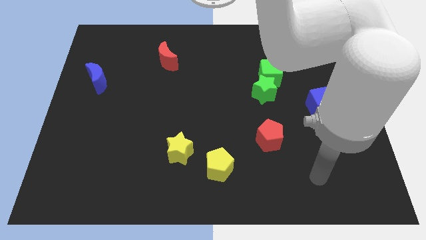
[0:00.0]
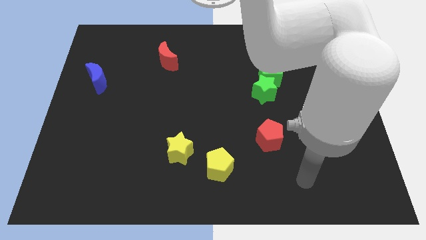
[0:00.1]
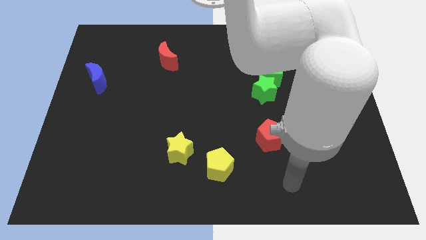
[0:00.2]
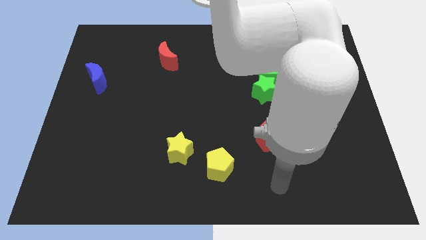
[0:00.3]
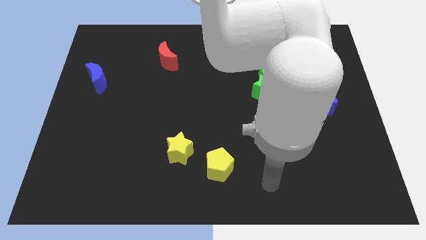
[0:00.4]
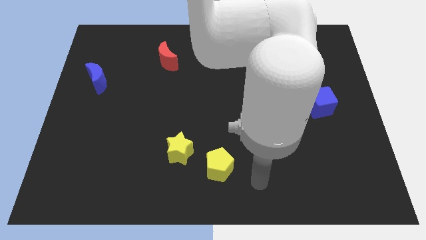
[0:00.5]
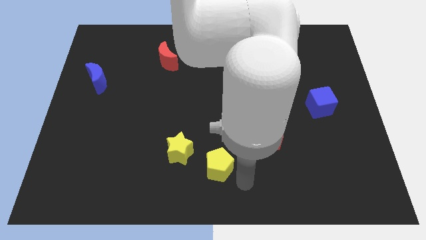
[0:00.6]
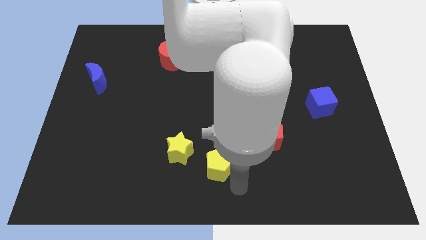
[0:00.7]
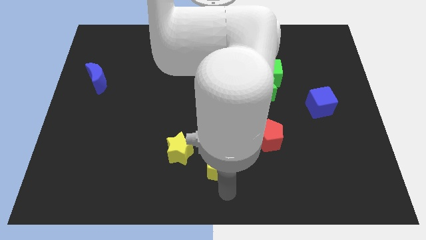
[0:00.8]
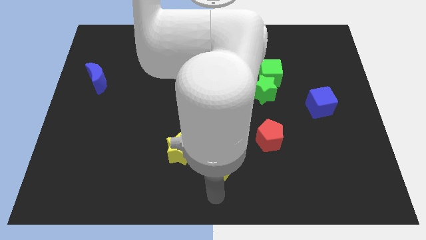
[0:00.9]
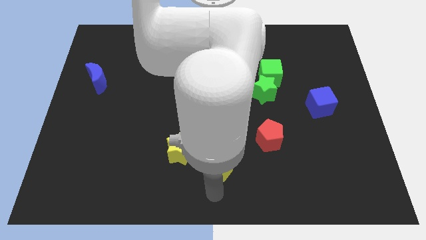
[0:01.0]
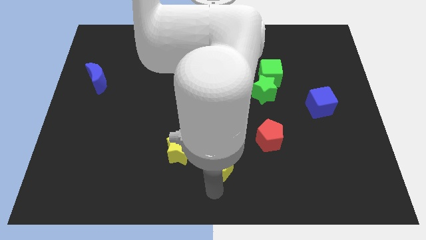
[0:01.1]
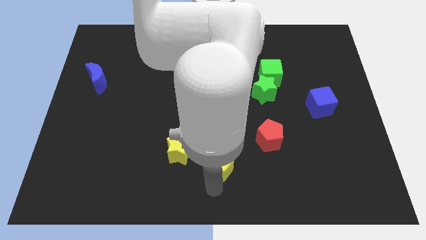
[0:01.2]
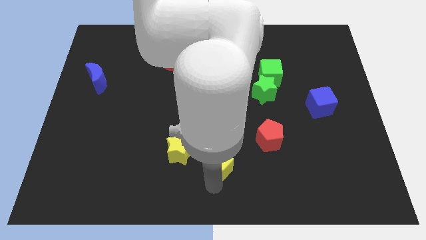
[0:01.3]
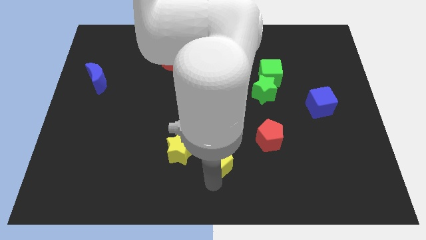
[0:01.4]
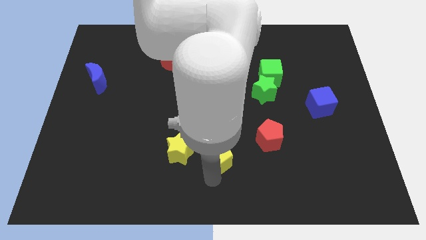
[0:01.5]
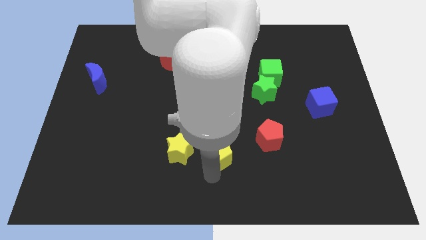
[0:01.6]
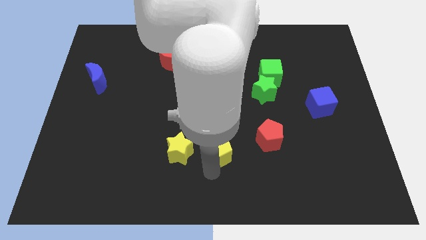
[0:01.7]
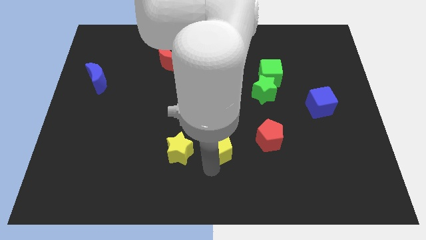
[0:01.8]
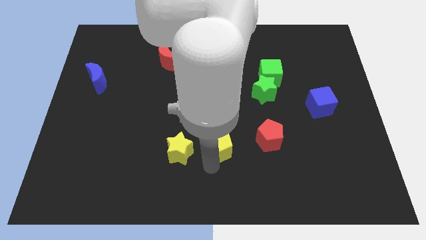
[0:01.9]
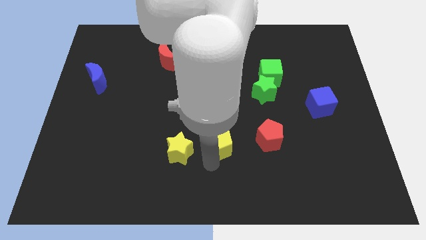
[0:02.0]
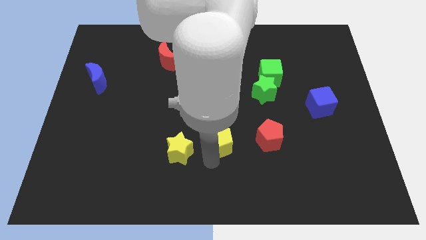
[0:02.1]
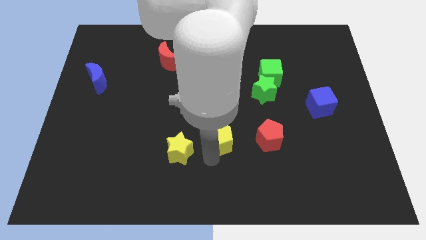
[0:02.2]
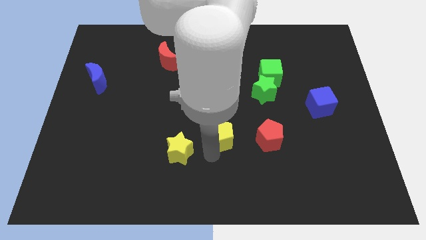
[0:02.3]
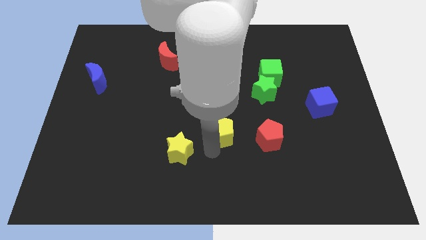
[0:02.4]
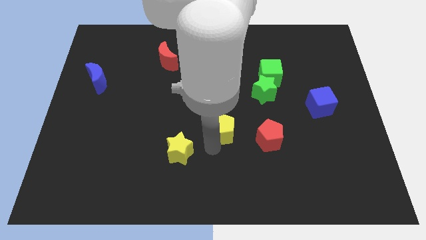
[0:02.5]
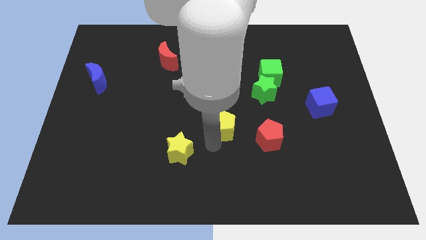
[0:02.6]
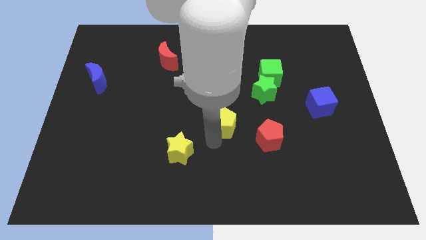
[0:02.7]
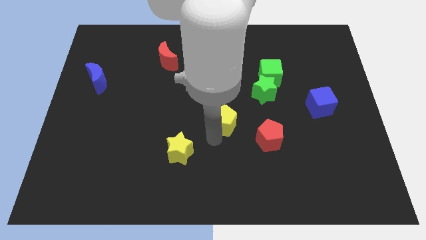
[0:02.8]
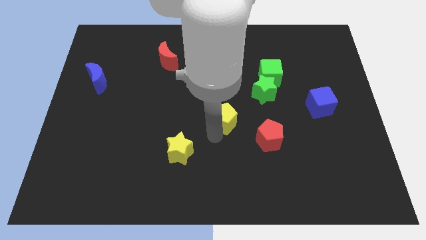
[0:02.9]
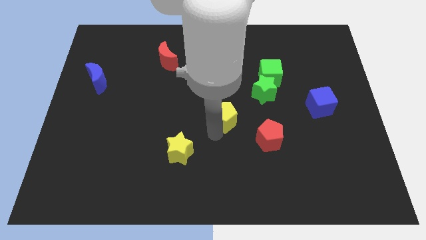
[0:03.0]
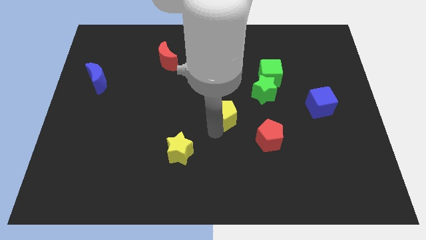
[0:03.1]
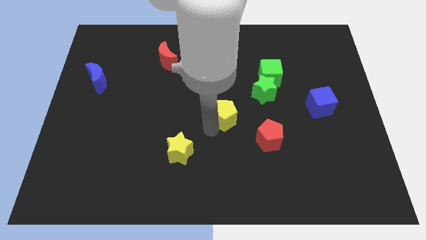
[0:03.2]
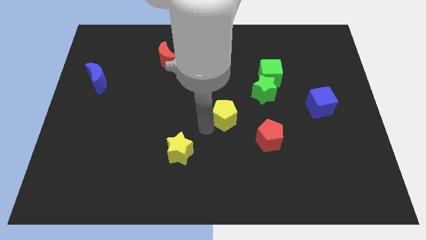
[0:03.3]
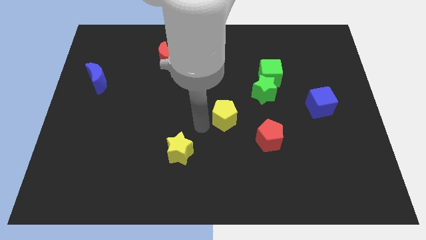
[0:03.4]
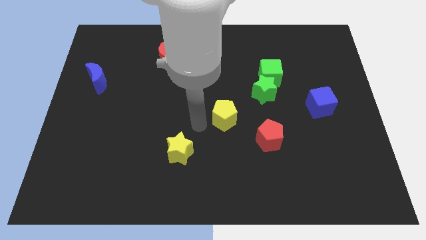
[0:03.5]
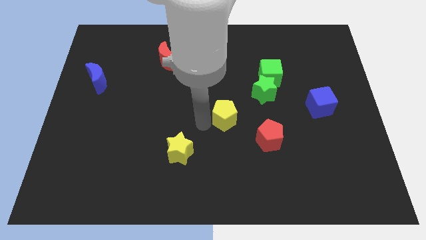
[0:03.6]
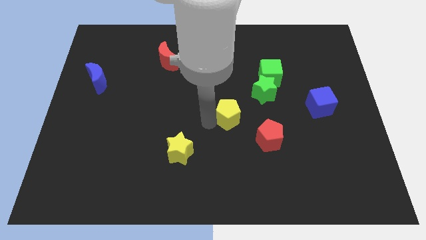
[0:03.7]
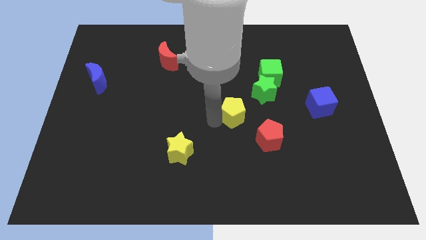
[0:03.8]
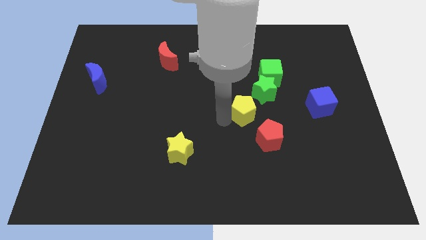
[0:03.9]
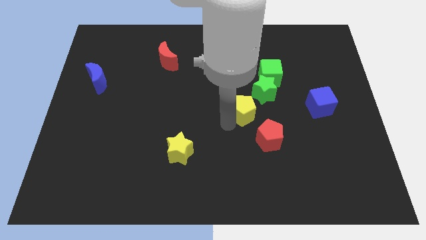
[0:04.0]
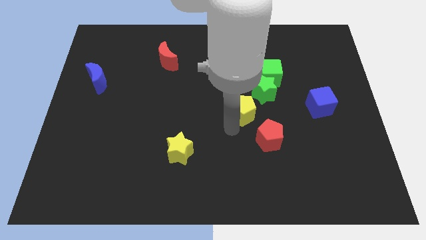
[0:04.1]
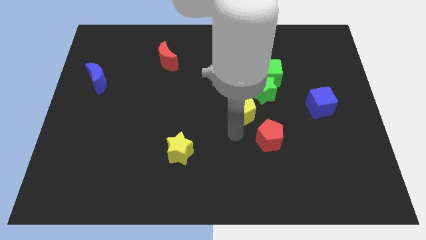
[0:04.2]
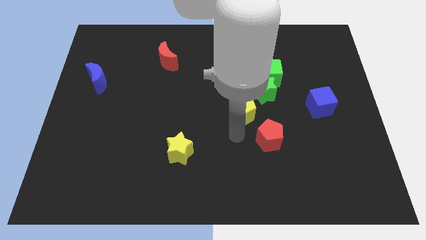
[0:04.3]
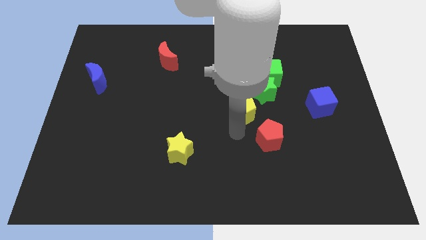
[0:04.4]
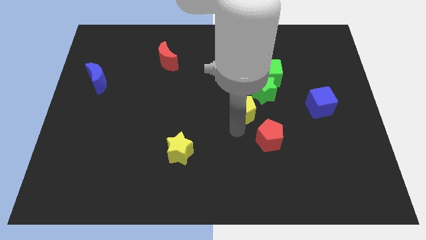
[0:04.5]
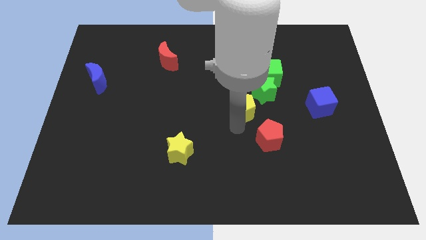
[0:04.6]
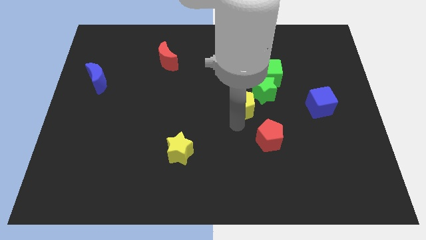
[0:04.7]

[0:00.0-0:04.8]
move the yellow pentagon to the bottom left of the green cube

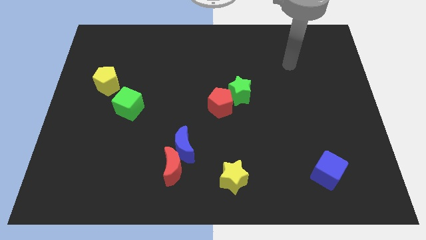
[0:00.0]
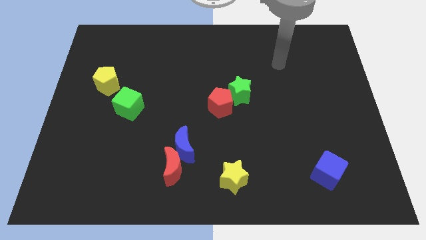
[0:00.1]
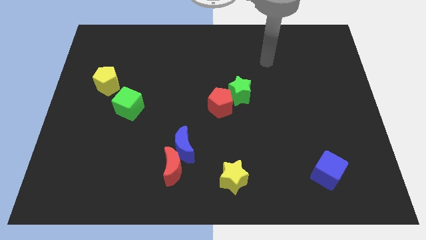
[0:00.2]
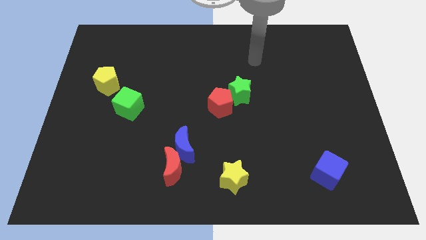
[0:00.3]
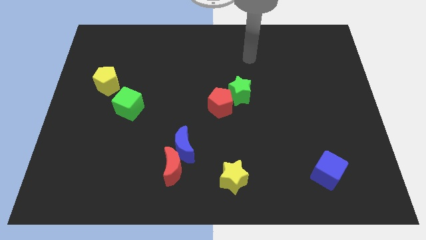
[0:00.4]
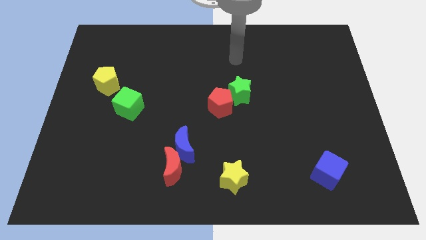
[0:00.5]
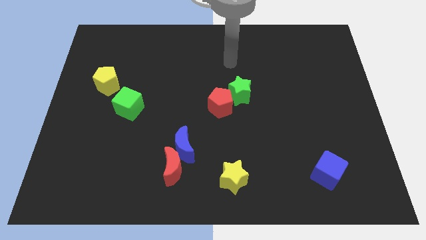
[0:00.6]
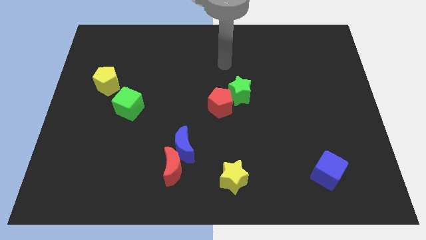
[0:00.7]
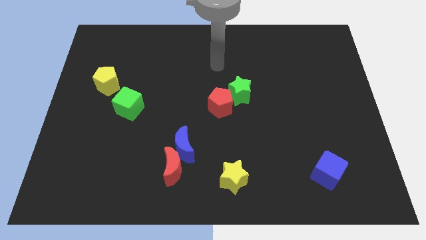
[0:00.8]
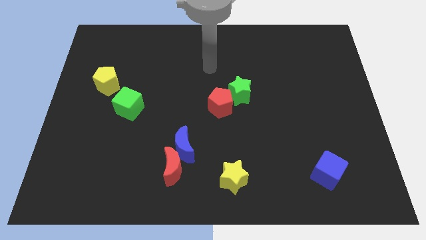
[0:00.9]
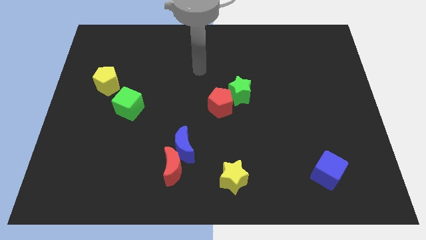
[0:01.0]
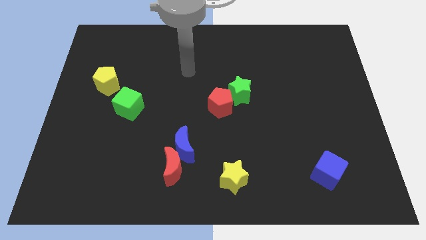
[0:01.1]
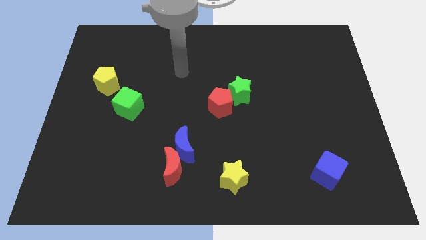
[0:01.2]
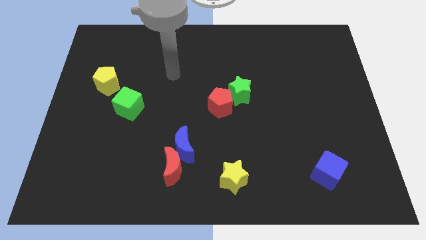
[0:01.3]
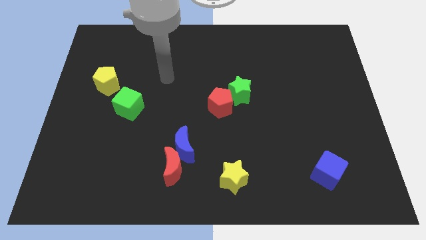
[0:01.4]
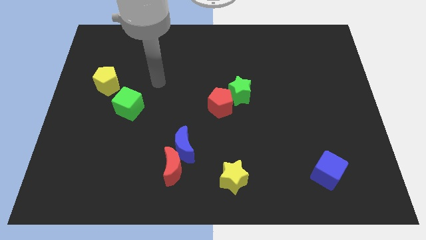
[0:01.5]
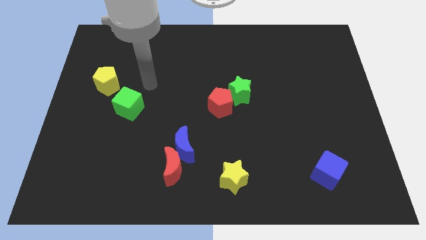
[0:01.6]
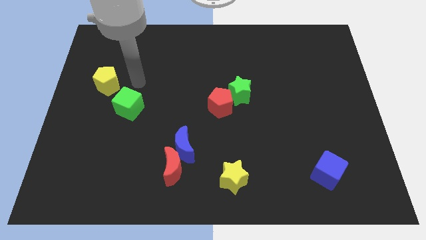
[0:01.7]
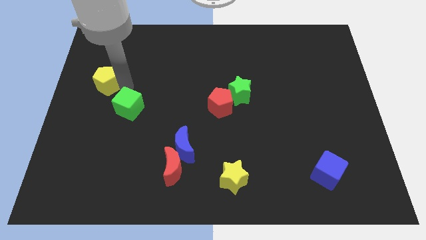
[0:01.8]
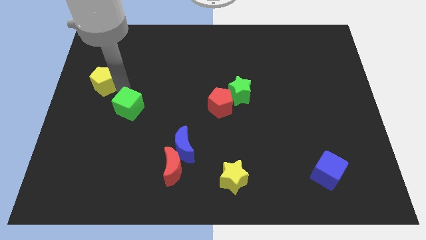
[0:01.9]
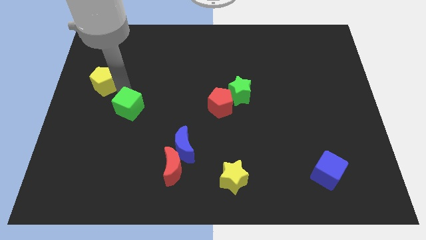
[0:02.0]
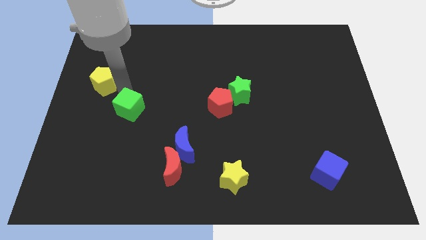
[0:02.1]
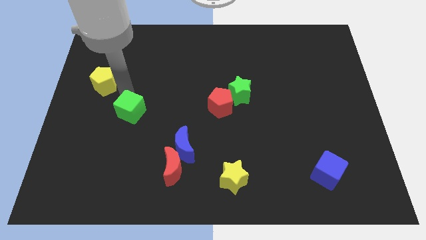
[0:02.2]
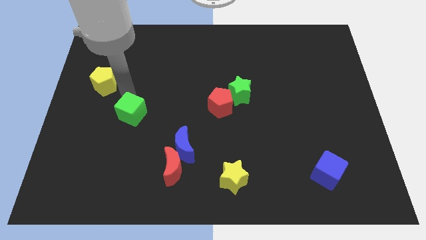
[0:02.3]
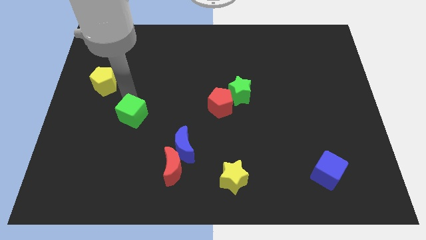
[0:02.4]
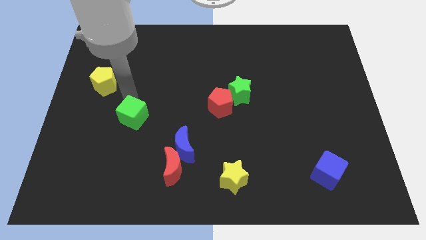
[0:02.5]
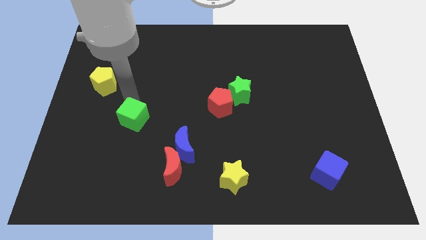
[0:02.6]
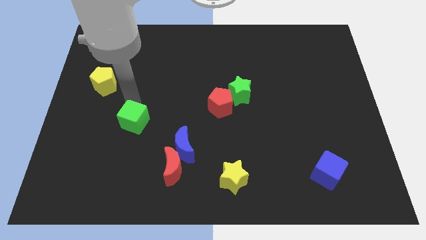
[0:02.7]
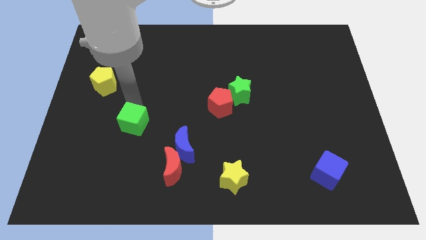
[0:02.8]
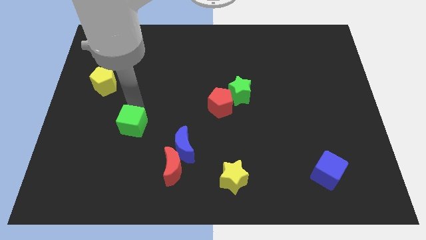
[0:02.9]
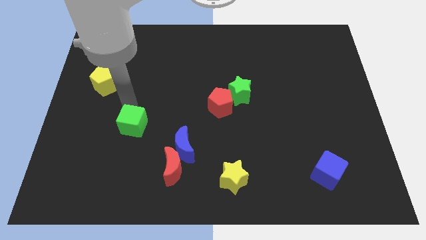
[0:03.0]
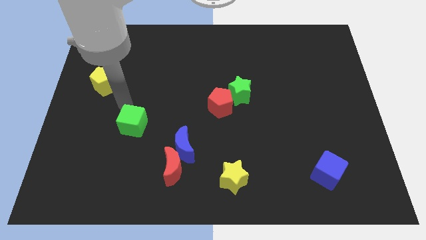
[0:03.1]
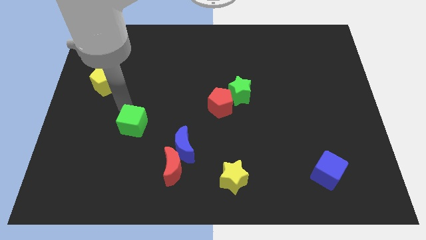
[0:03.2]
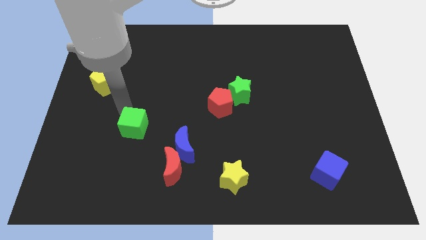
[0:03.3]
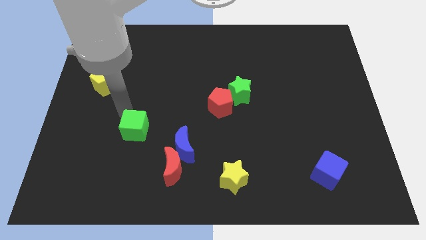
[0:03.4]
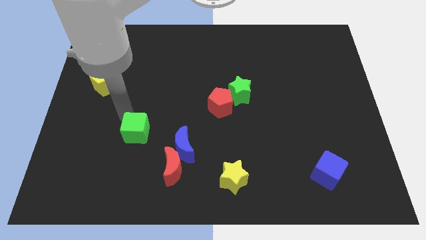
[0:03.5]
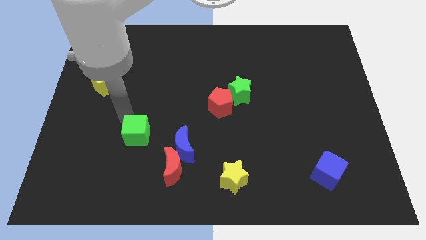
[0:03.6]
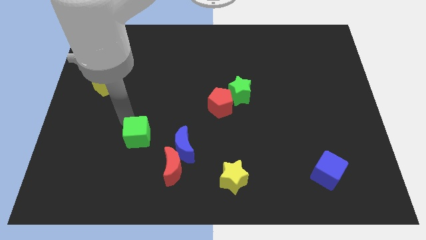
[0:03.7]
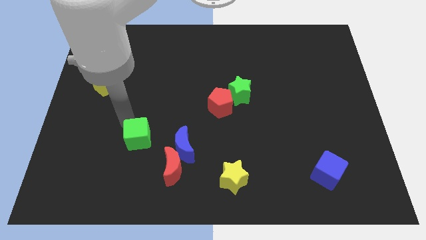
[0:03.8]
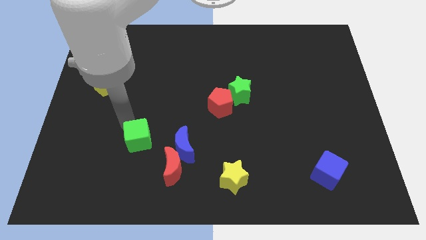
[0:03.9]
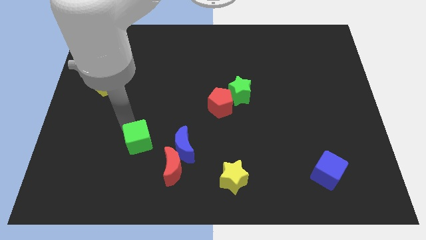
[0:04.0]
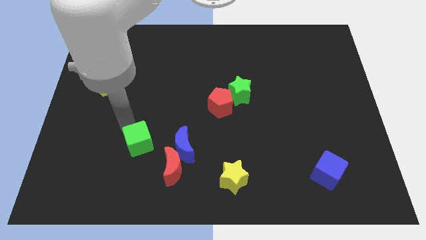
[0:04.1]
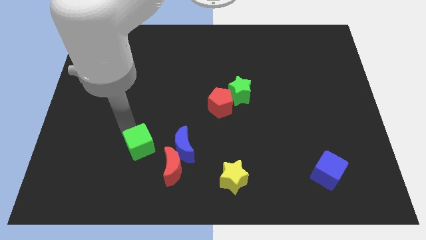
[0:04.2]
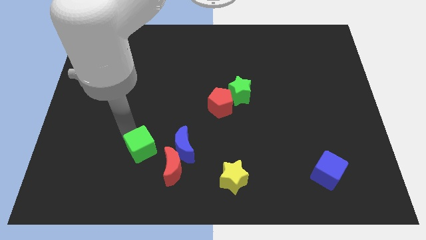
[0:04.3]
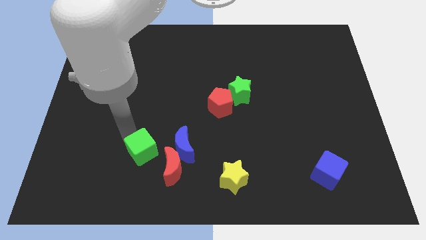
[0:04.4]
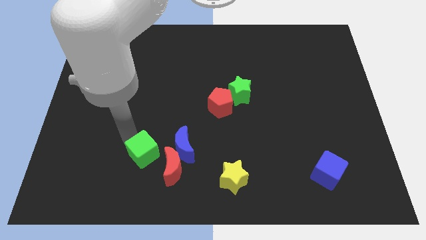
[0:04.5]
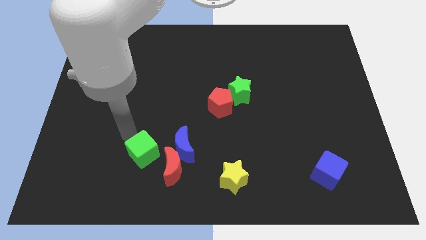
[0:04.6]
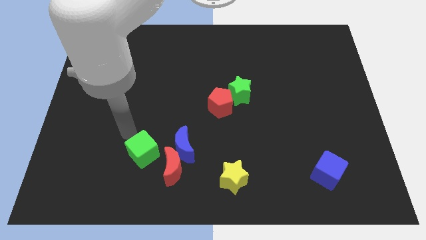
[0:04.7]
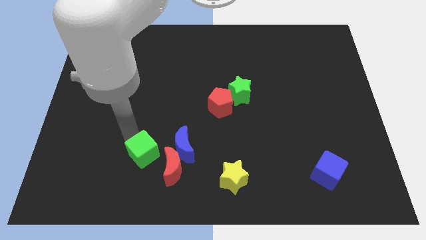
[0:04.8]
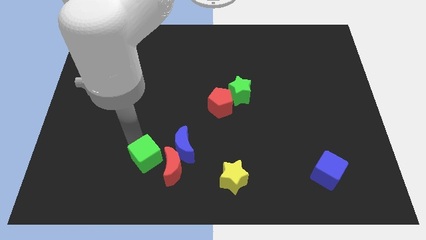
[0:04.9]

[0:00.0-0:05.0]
put the green cube to the bottom left of the blue moon
